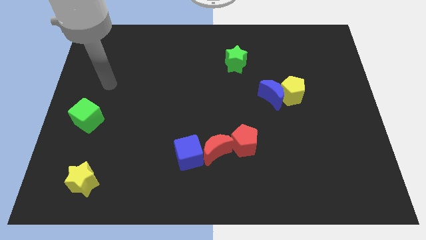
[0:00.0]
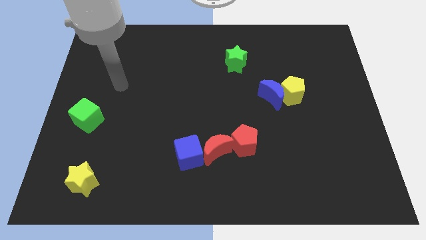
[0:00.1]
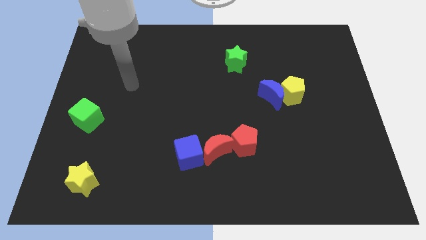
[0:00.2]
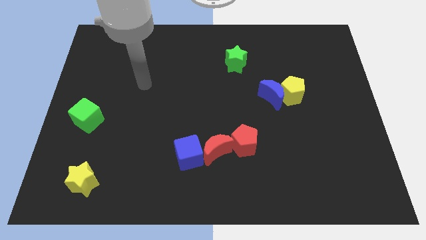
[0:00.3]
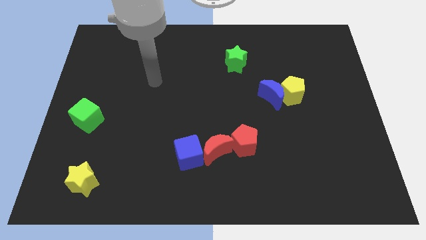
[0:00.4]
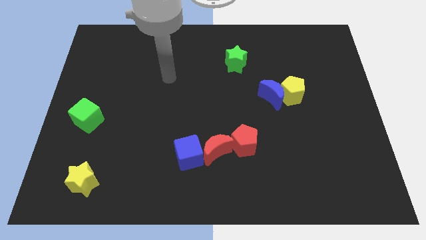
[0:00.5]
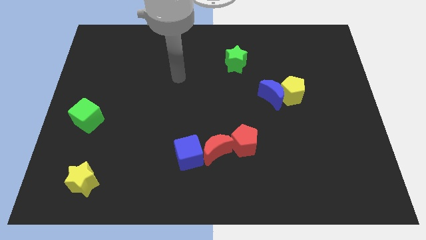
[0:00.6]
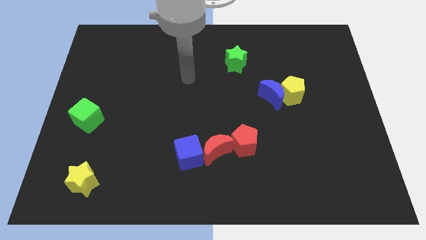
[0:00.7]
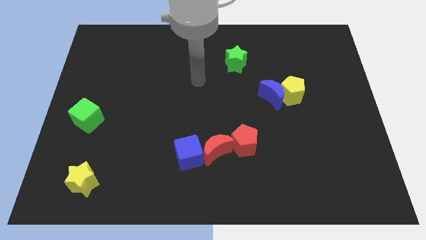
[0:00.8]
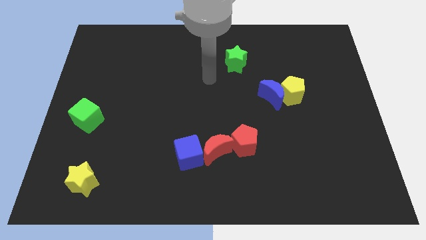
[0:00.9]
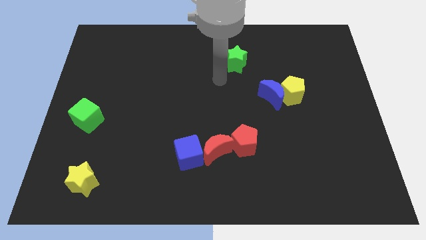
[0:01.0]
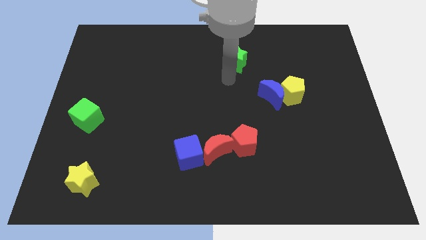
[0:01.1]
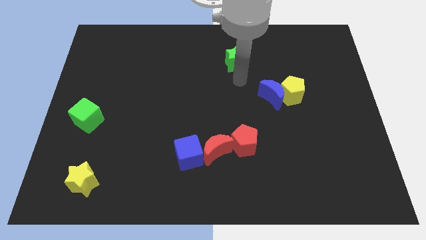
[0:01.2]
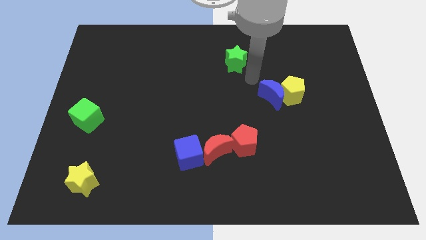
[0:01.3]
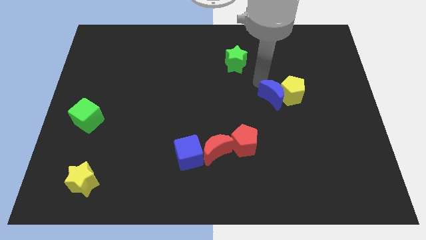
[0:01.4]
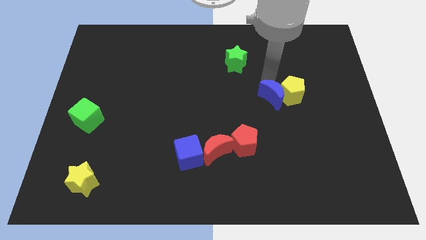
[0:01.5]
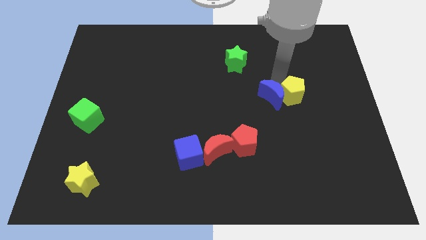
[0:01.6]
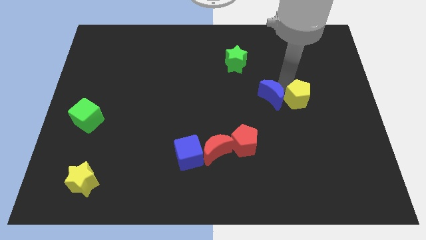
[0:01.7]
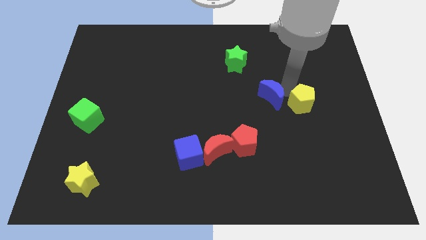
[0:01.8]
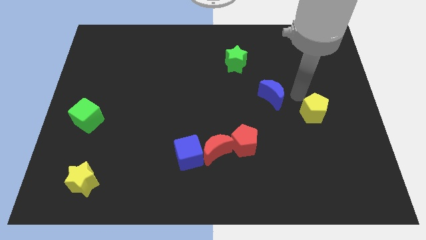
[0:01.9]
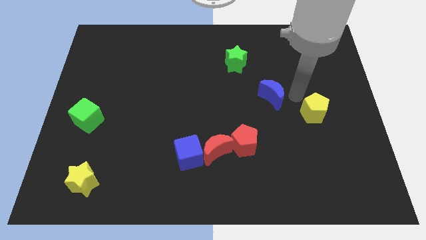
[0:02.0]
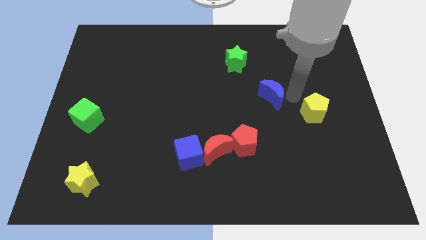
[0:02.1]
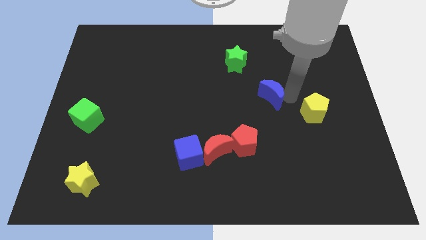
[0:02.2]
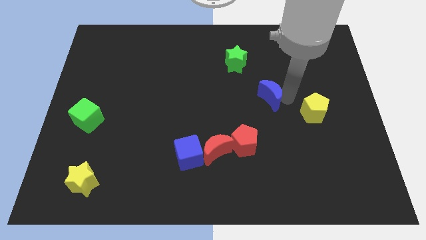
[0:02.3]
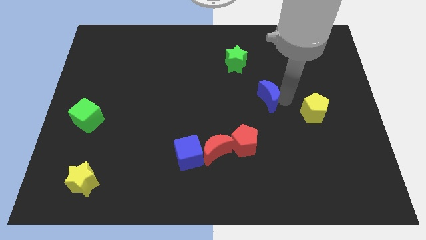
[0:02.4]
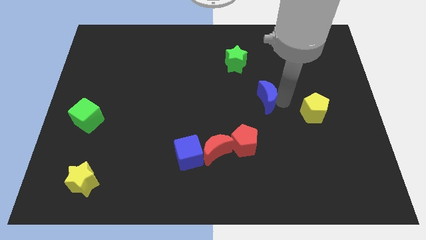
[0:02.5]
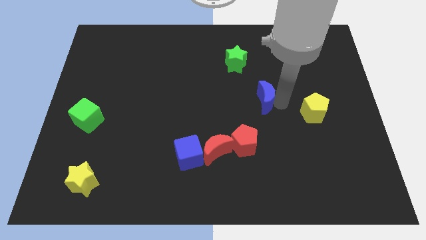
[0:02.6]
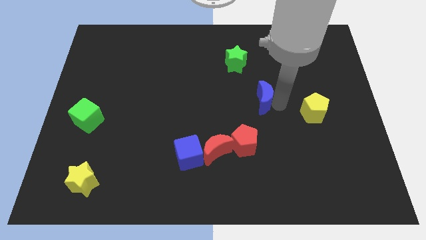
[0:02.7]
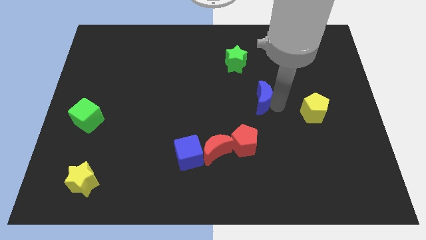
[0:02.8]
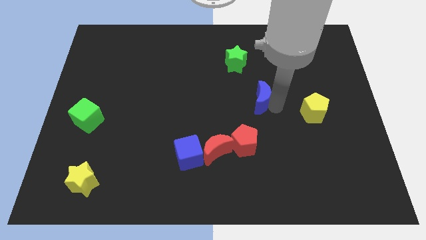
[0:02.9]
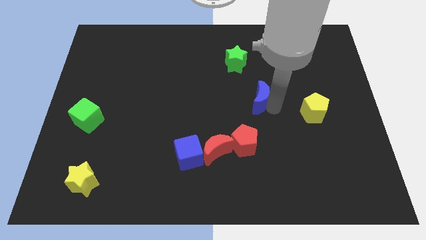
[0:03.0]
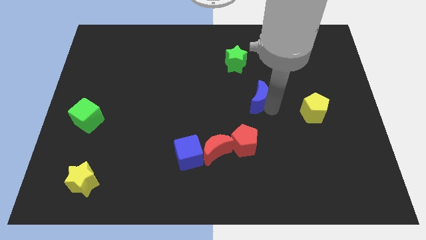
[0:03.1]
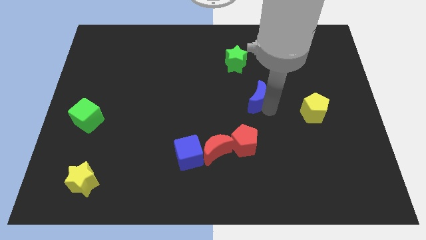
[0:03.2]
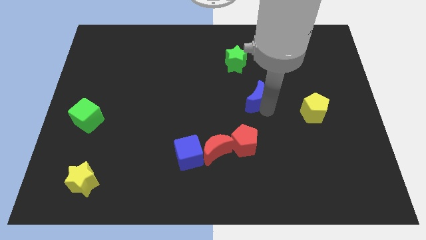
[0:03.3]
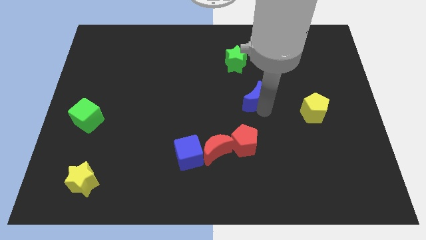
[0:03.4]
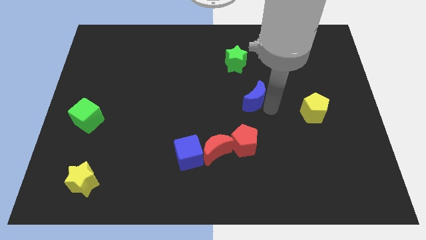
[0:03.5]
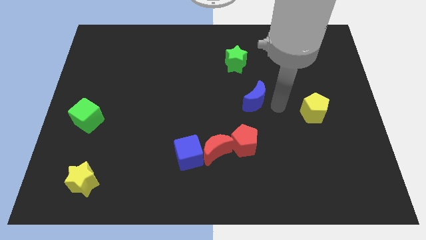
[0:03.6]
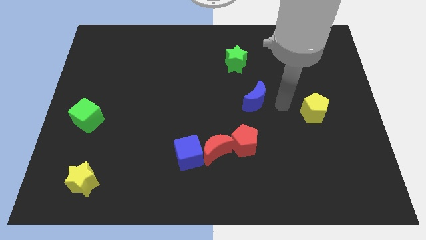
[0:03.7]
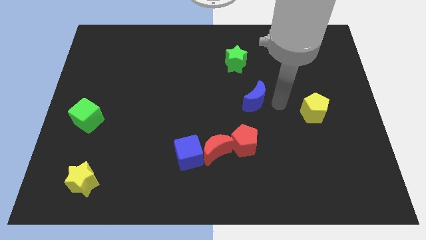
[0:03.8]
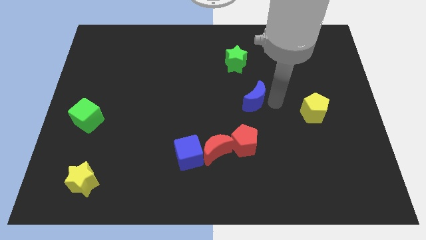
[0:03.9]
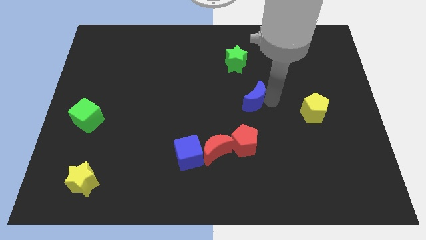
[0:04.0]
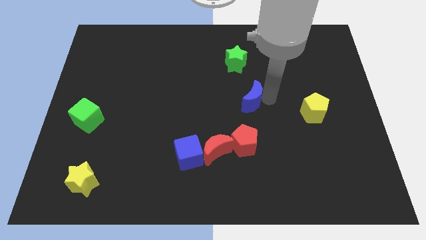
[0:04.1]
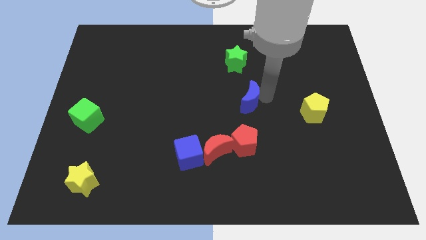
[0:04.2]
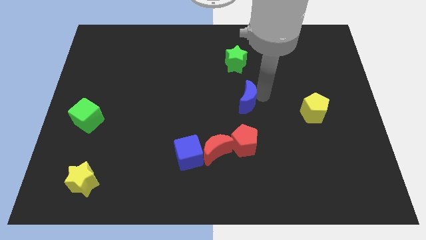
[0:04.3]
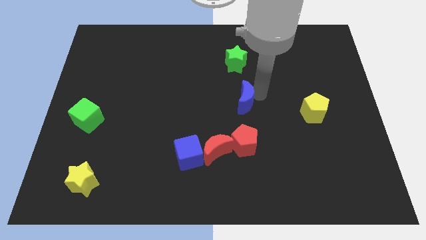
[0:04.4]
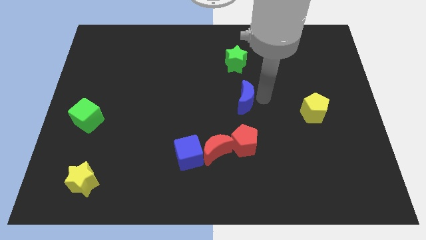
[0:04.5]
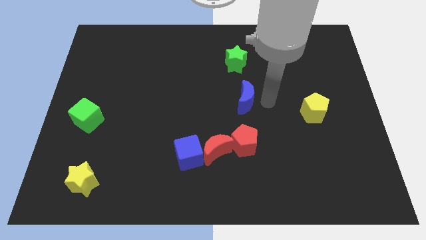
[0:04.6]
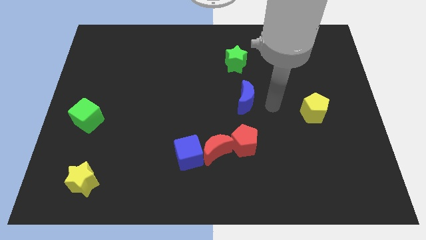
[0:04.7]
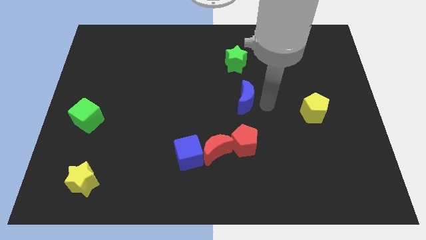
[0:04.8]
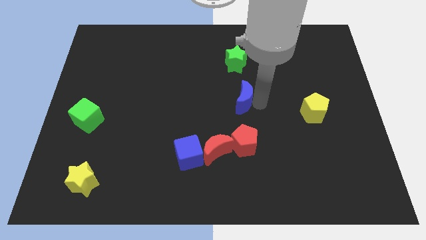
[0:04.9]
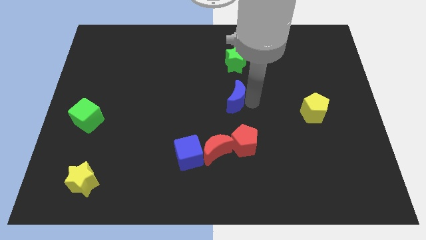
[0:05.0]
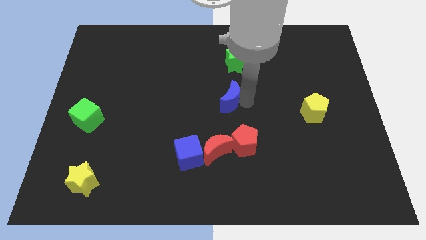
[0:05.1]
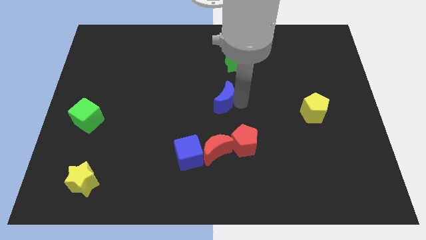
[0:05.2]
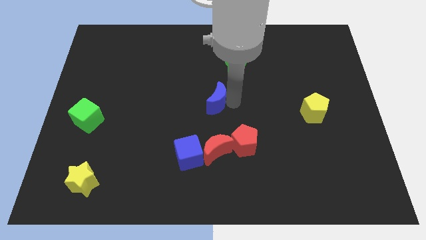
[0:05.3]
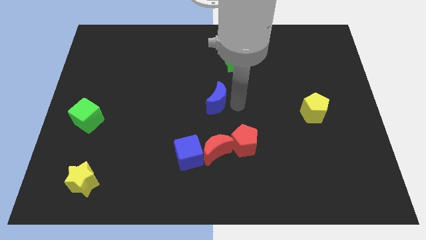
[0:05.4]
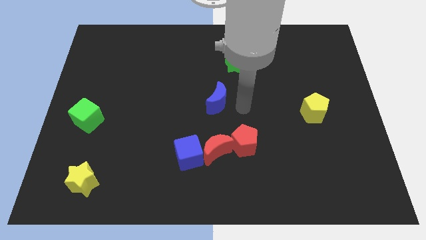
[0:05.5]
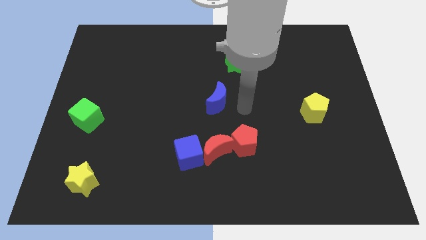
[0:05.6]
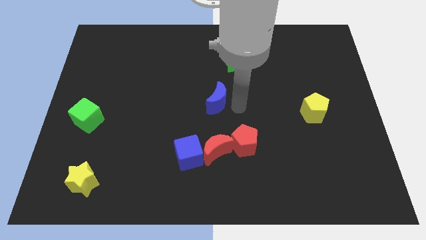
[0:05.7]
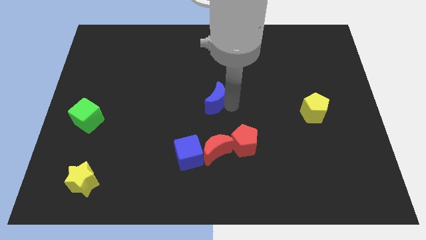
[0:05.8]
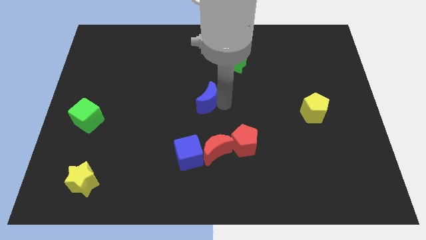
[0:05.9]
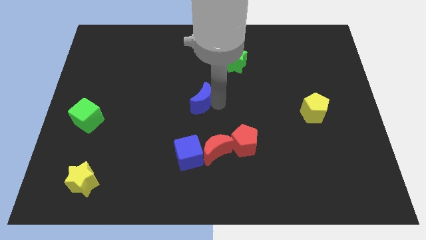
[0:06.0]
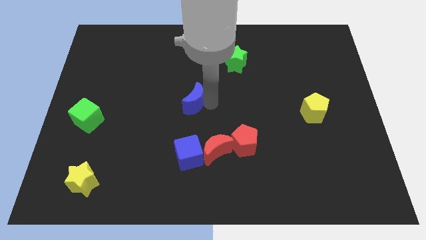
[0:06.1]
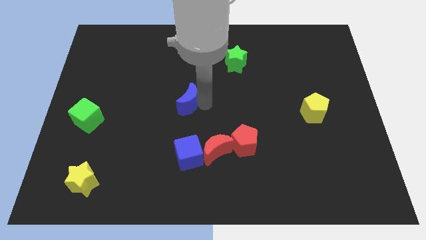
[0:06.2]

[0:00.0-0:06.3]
slide the blue moon left

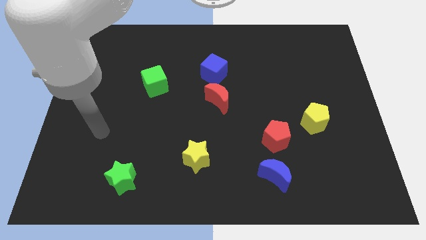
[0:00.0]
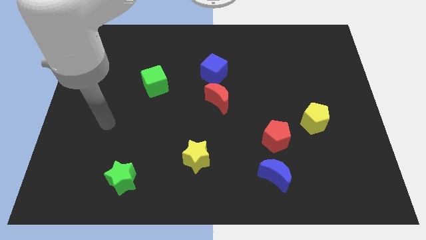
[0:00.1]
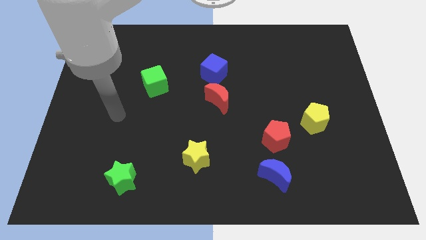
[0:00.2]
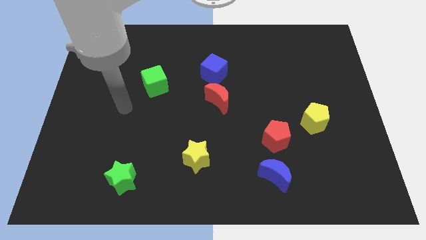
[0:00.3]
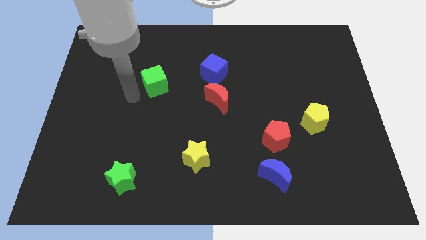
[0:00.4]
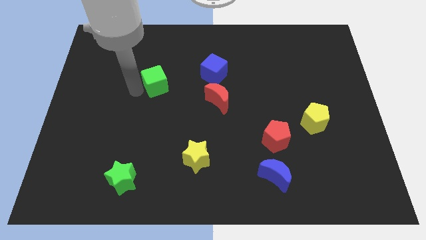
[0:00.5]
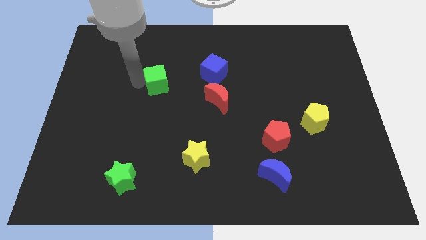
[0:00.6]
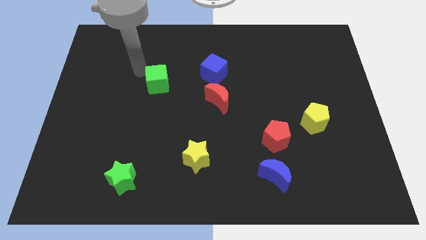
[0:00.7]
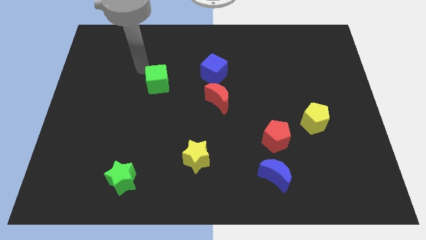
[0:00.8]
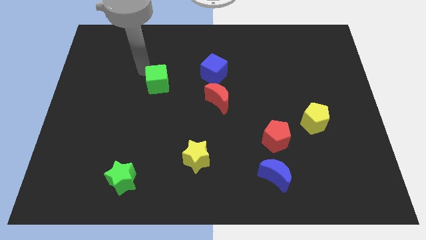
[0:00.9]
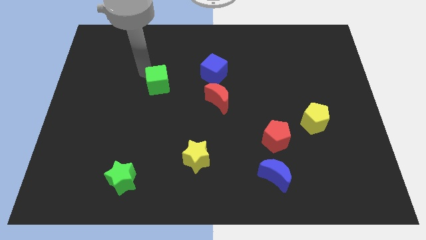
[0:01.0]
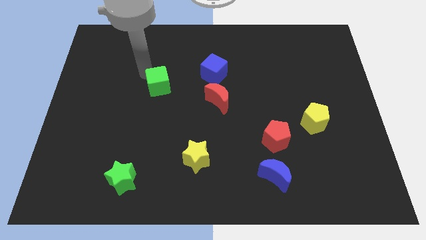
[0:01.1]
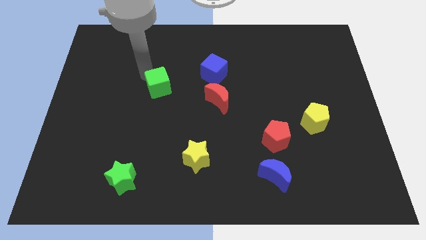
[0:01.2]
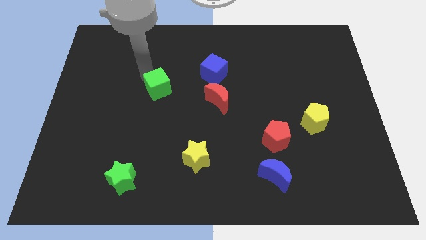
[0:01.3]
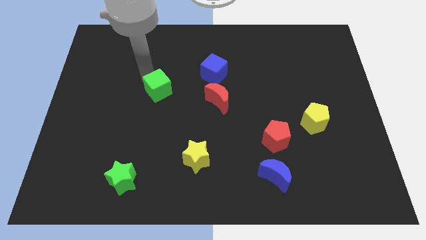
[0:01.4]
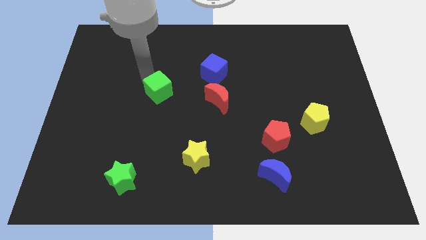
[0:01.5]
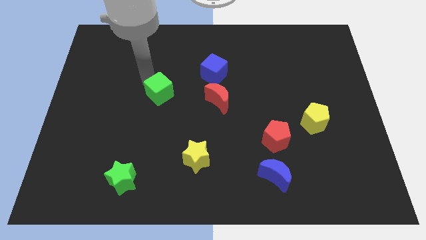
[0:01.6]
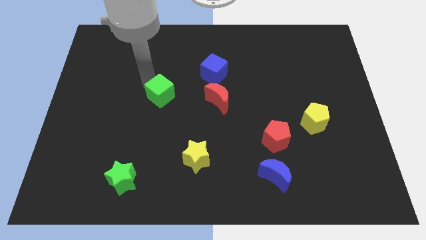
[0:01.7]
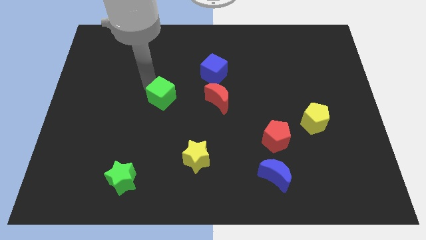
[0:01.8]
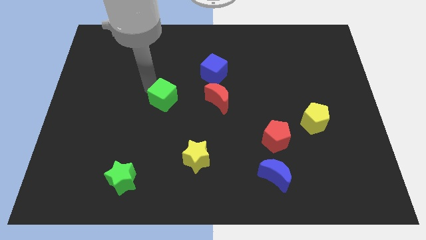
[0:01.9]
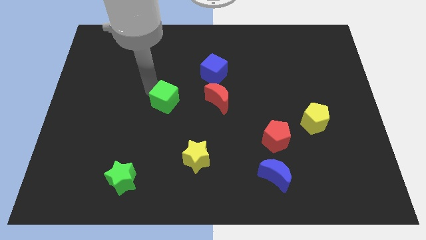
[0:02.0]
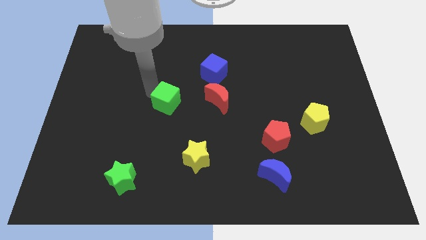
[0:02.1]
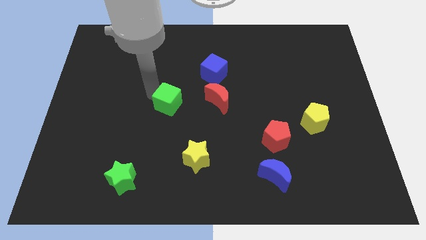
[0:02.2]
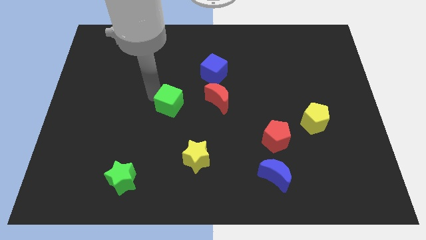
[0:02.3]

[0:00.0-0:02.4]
slightly push the green cube down and right diagonally
